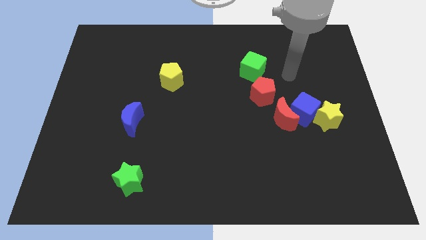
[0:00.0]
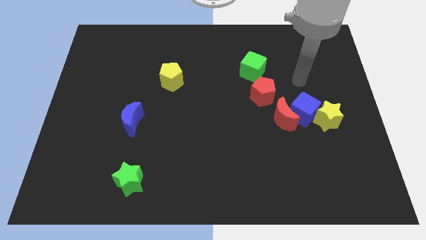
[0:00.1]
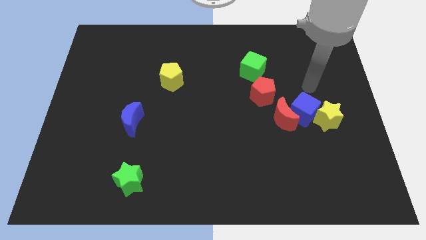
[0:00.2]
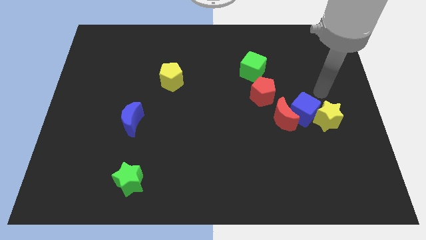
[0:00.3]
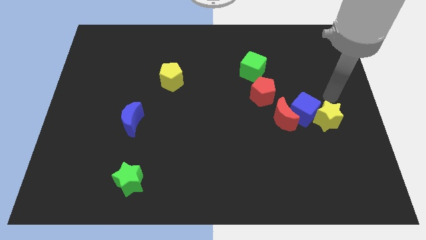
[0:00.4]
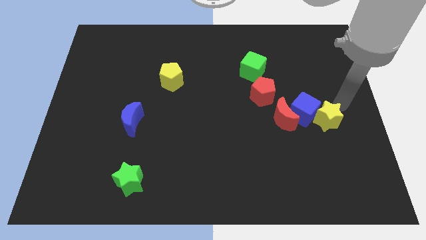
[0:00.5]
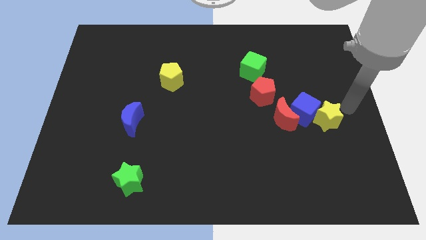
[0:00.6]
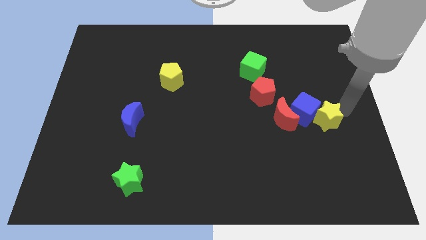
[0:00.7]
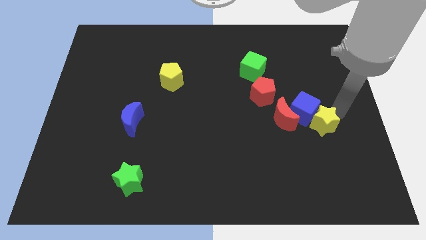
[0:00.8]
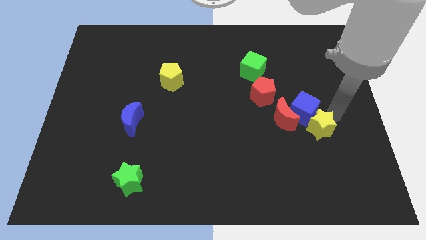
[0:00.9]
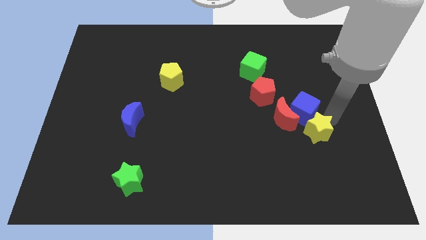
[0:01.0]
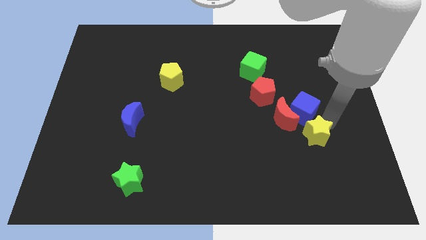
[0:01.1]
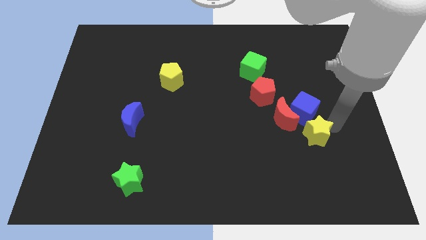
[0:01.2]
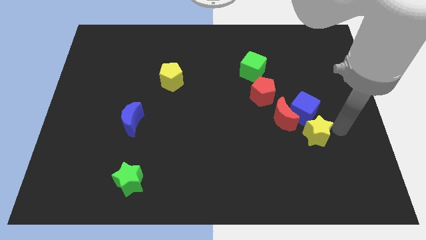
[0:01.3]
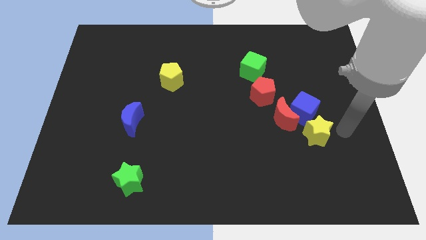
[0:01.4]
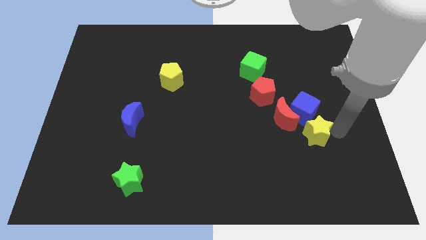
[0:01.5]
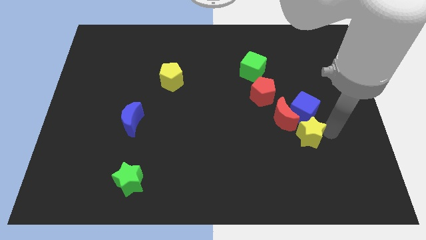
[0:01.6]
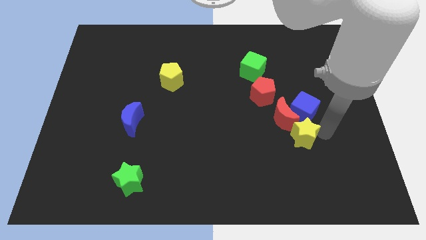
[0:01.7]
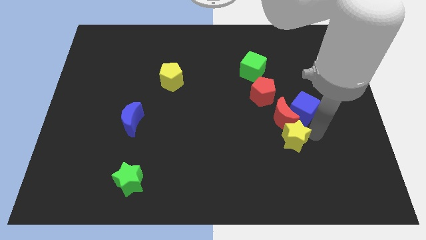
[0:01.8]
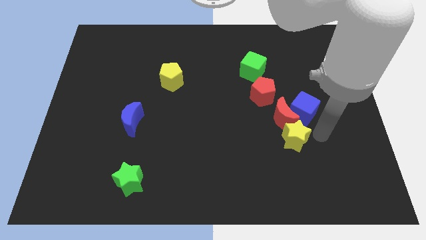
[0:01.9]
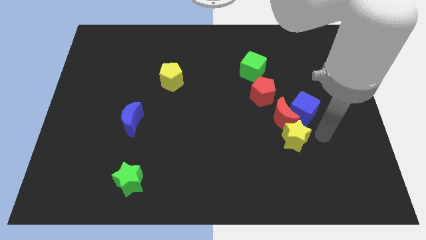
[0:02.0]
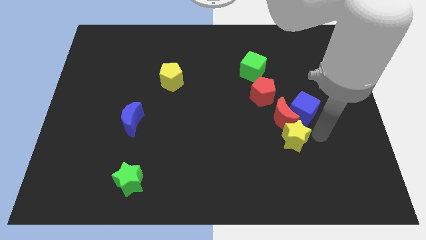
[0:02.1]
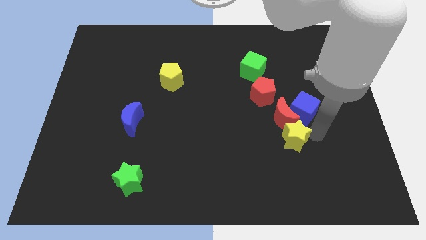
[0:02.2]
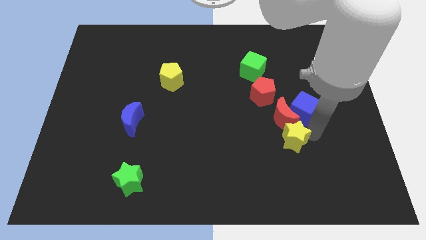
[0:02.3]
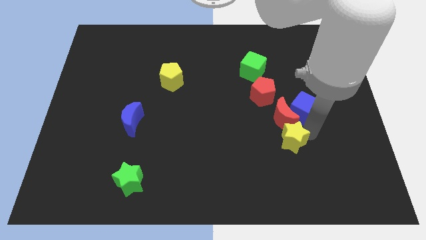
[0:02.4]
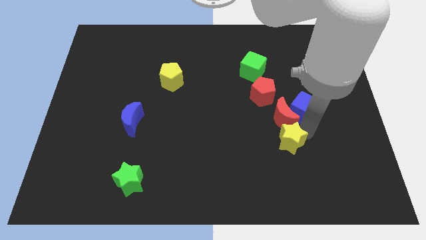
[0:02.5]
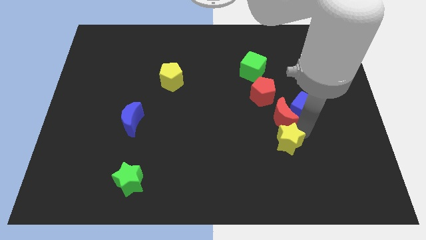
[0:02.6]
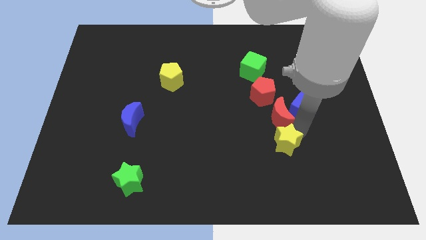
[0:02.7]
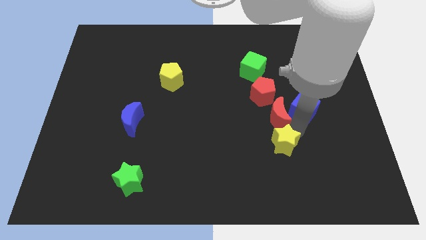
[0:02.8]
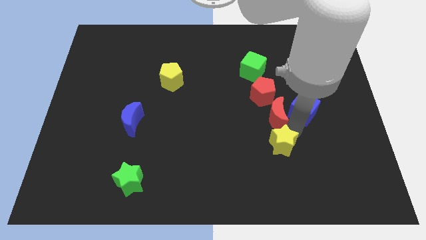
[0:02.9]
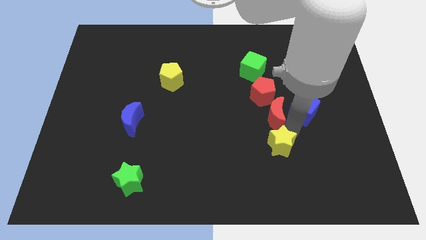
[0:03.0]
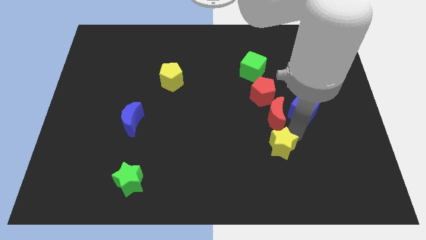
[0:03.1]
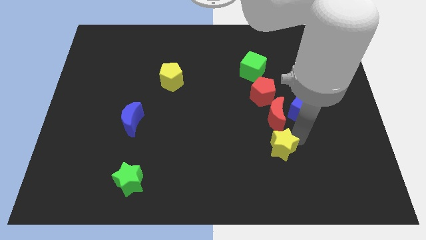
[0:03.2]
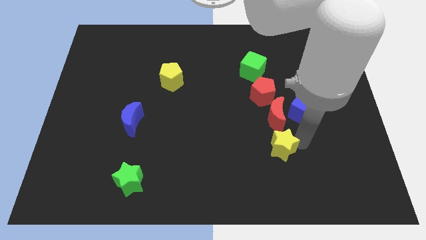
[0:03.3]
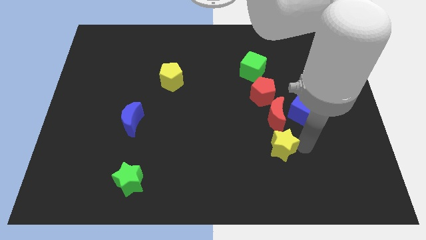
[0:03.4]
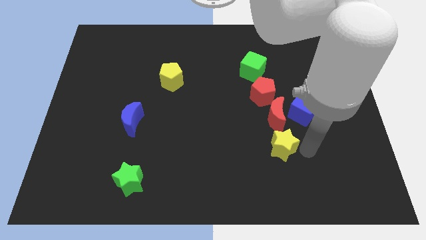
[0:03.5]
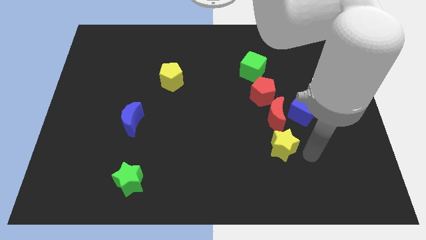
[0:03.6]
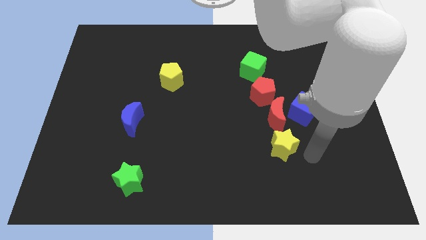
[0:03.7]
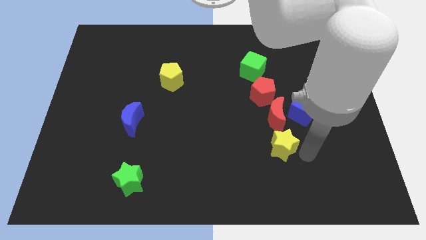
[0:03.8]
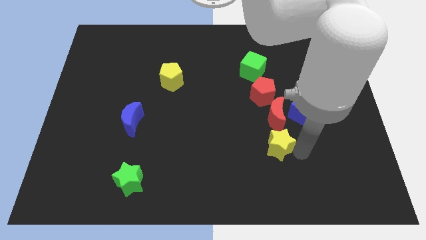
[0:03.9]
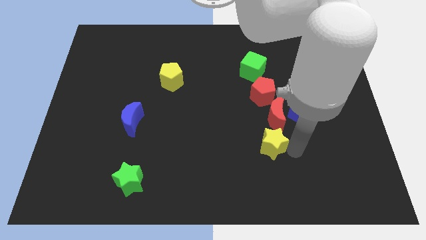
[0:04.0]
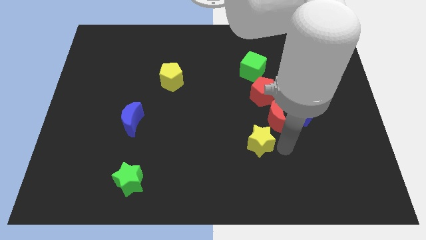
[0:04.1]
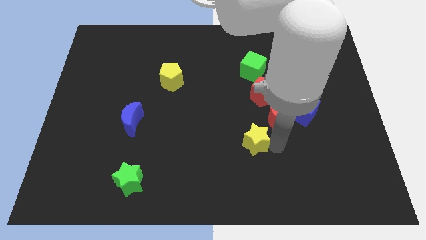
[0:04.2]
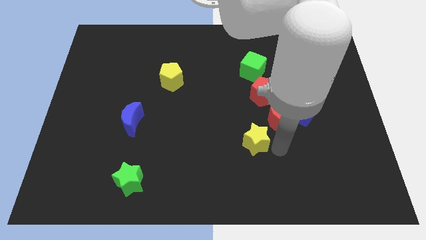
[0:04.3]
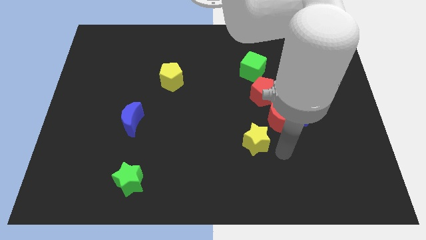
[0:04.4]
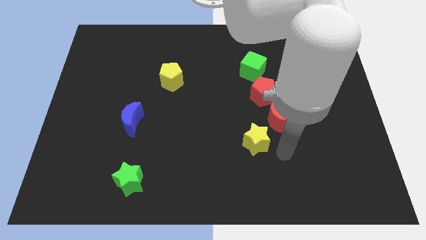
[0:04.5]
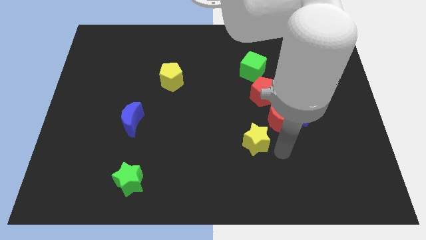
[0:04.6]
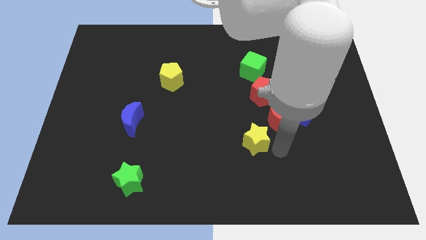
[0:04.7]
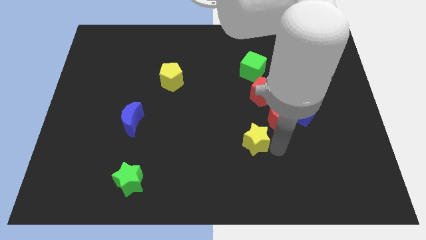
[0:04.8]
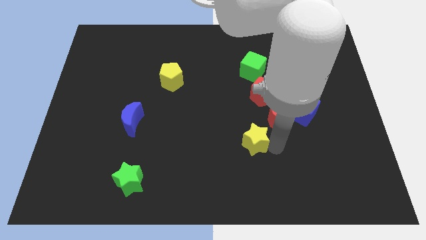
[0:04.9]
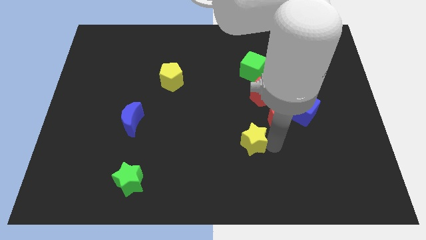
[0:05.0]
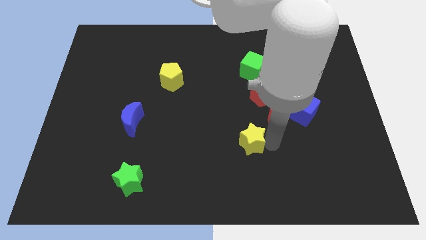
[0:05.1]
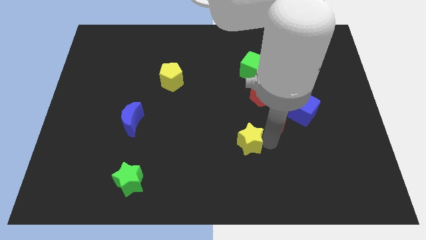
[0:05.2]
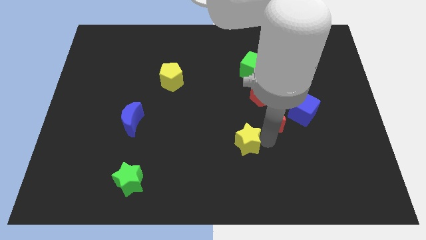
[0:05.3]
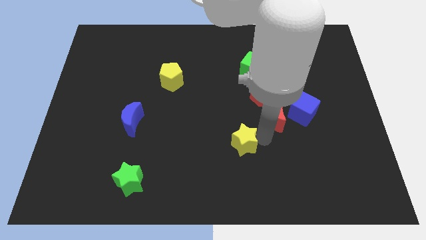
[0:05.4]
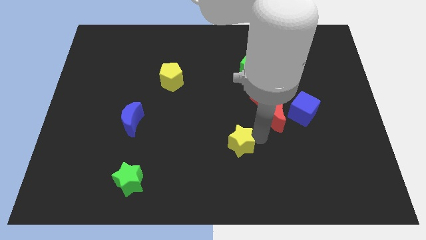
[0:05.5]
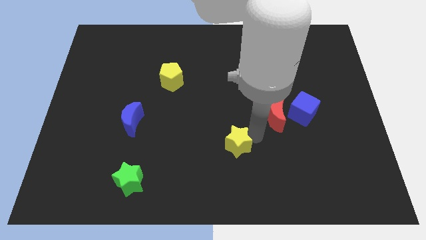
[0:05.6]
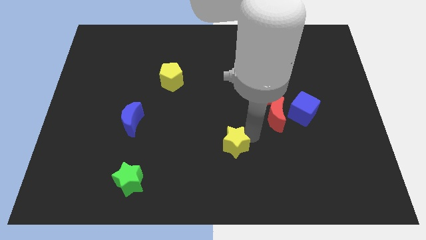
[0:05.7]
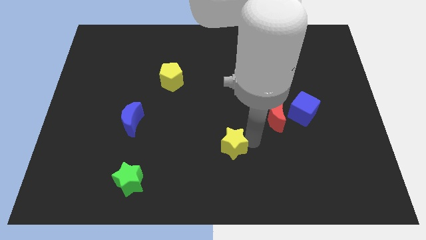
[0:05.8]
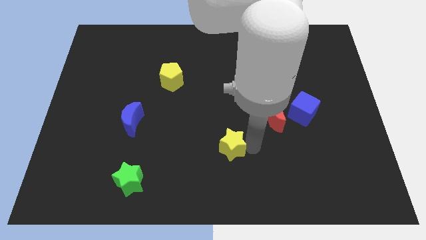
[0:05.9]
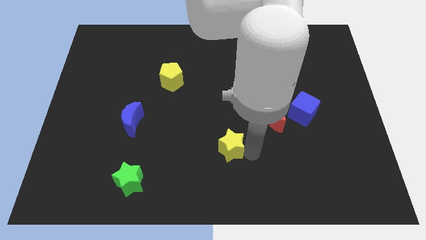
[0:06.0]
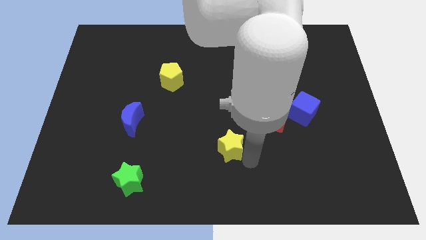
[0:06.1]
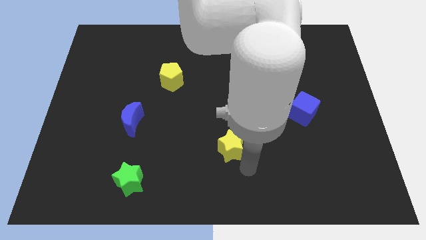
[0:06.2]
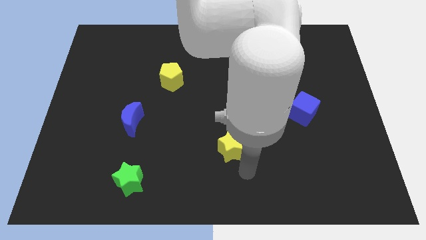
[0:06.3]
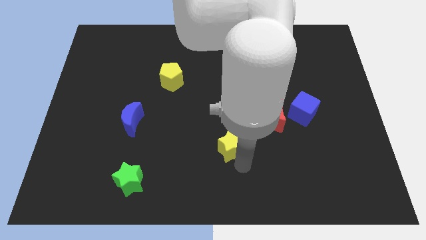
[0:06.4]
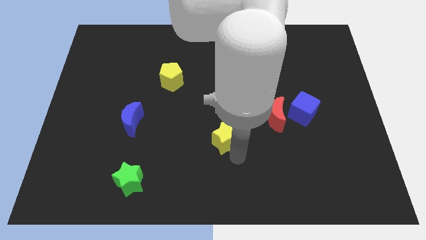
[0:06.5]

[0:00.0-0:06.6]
slide the yellow star to the left

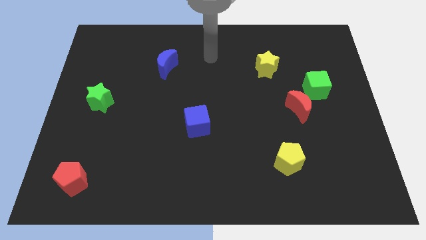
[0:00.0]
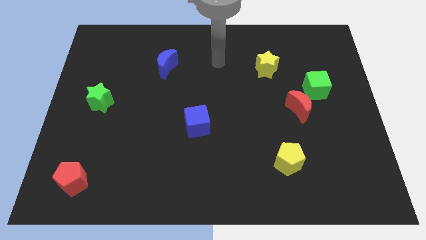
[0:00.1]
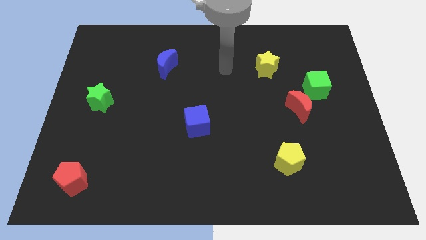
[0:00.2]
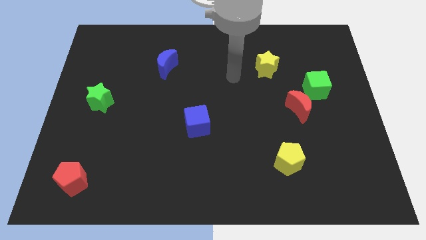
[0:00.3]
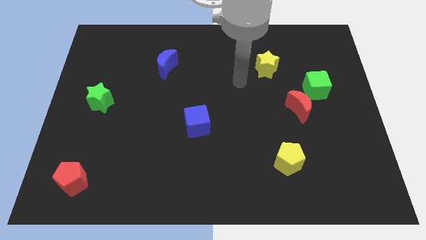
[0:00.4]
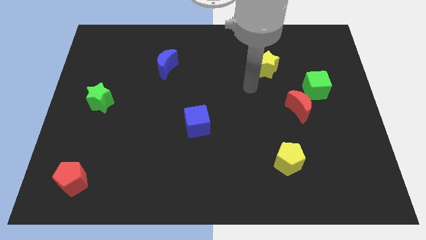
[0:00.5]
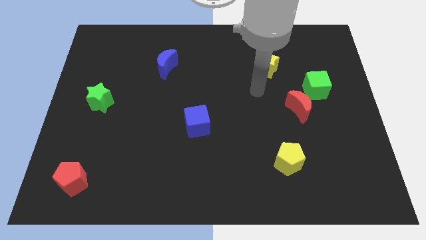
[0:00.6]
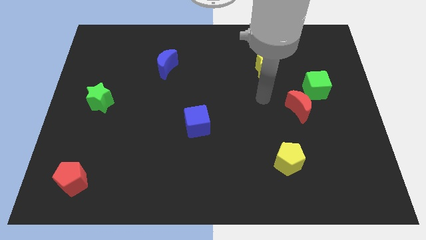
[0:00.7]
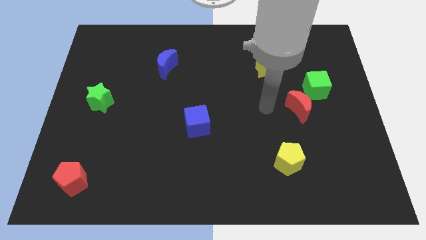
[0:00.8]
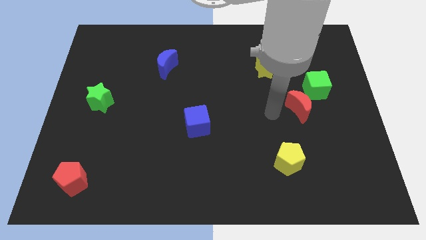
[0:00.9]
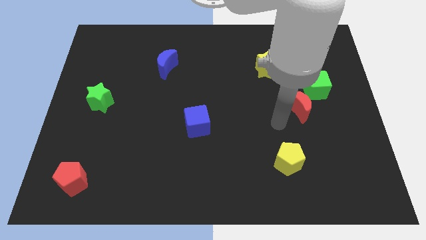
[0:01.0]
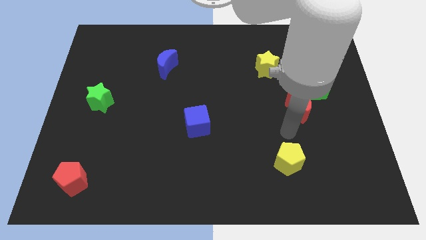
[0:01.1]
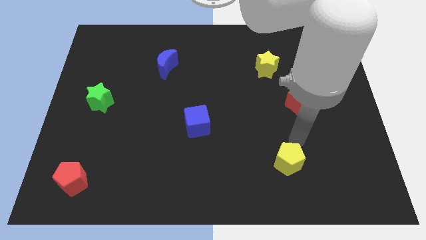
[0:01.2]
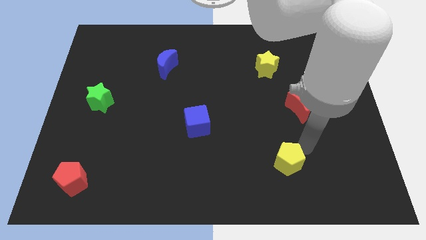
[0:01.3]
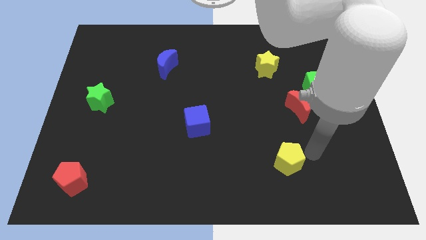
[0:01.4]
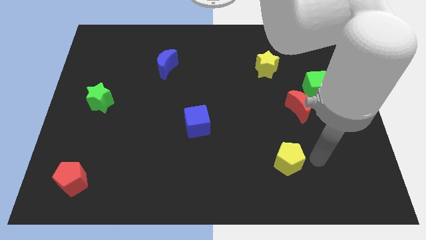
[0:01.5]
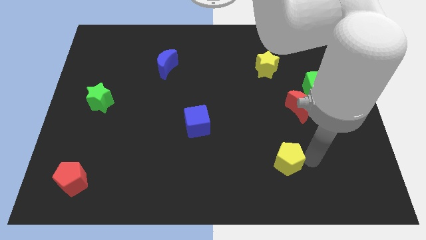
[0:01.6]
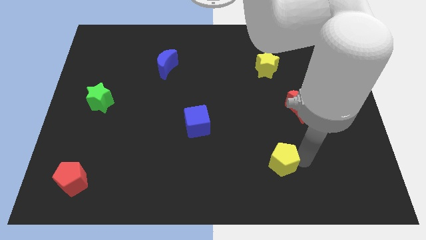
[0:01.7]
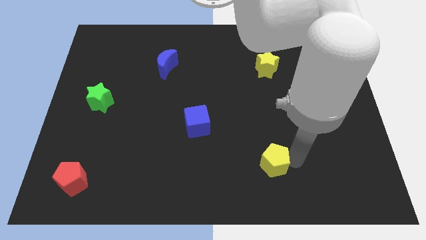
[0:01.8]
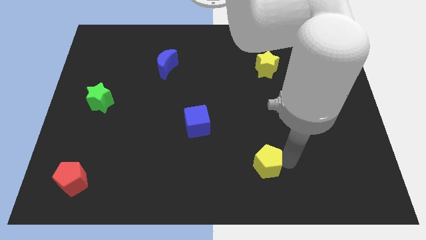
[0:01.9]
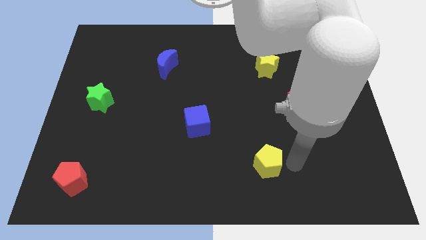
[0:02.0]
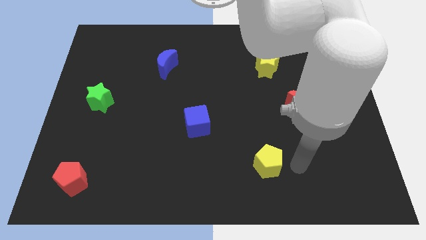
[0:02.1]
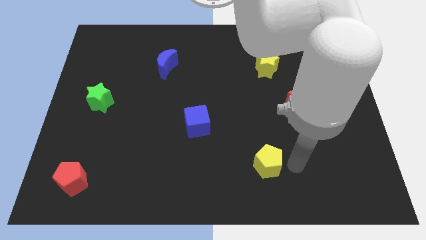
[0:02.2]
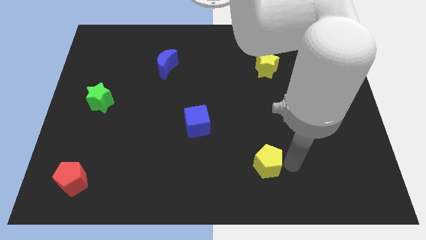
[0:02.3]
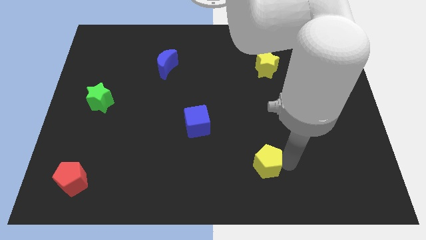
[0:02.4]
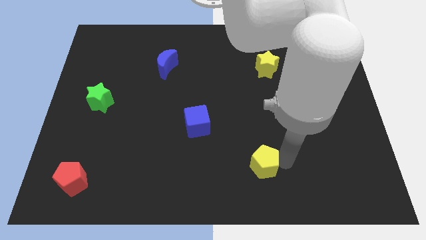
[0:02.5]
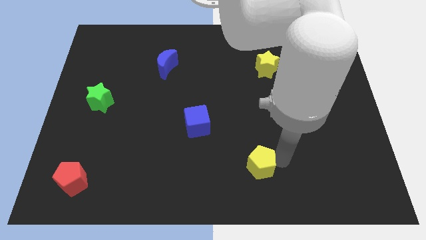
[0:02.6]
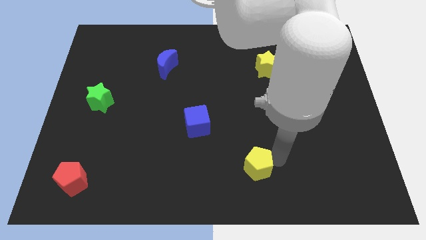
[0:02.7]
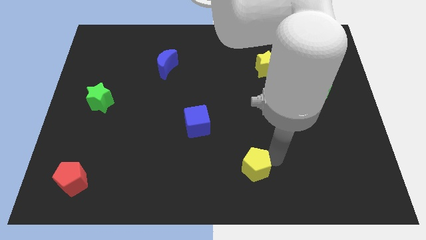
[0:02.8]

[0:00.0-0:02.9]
slide the yellow pentagon slightly to the left
